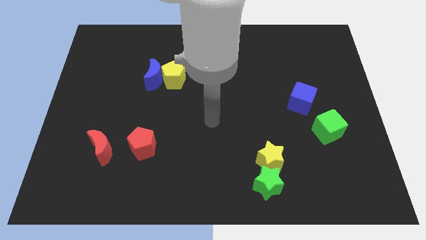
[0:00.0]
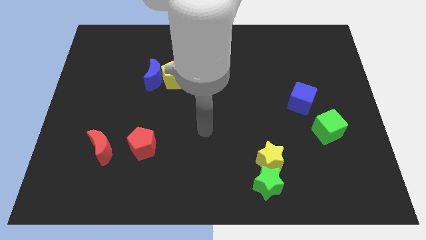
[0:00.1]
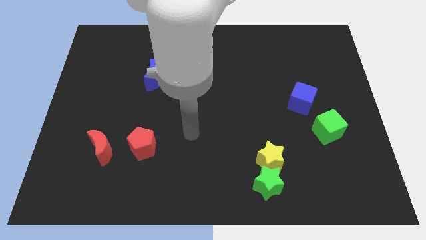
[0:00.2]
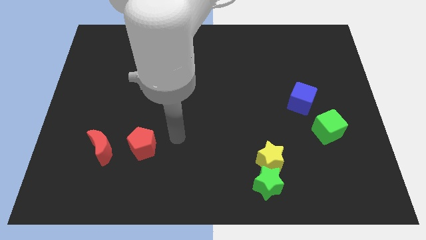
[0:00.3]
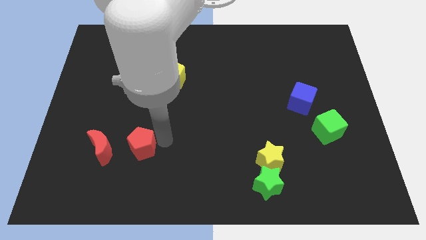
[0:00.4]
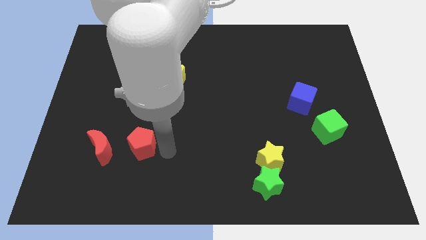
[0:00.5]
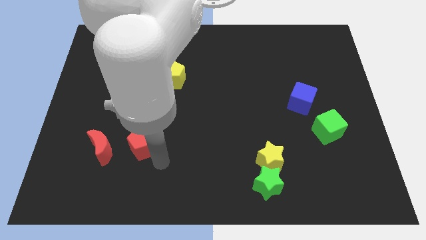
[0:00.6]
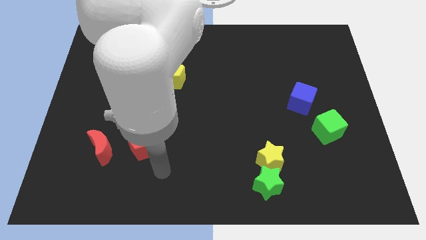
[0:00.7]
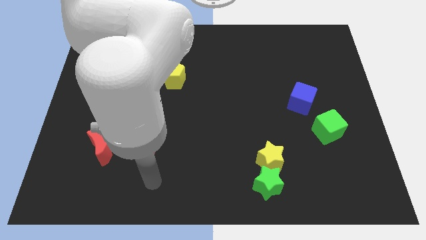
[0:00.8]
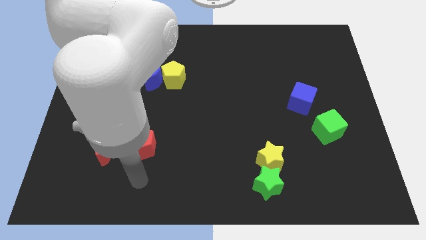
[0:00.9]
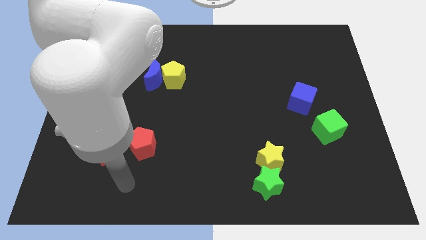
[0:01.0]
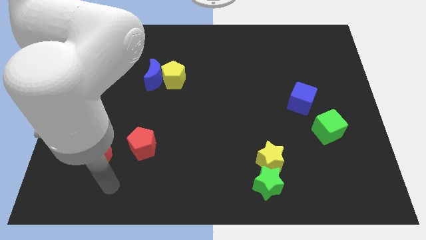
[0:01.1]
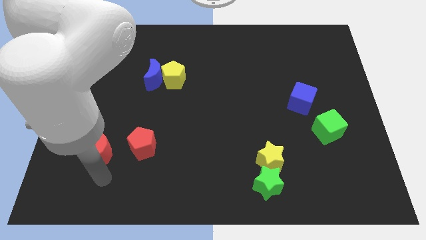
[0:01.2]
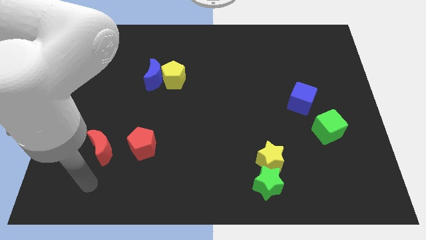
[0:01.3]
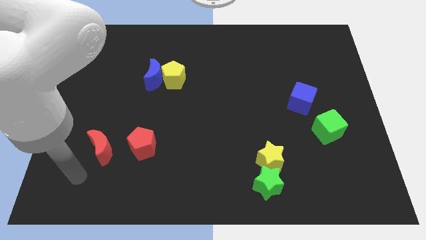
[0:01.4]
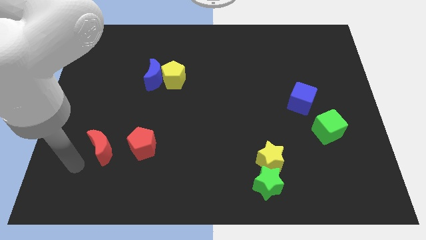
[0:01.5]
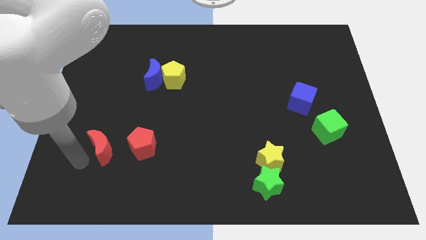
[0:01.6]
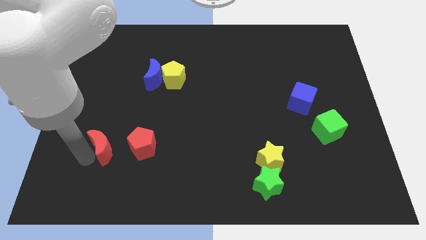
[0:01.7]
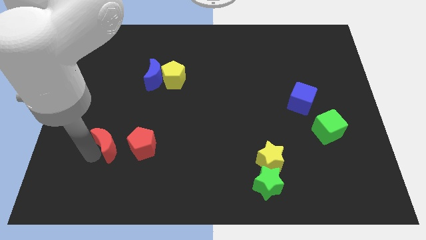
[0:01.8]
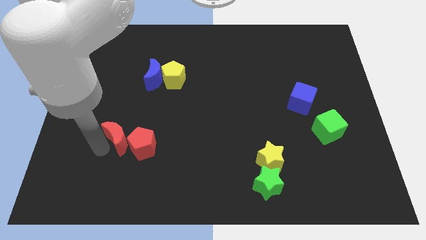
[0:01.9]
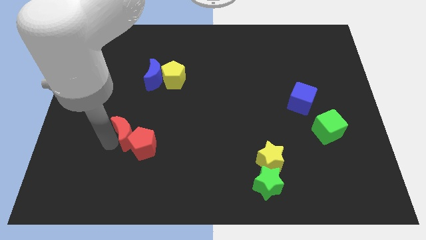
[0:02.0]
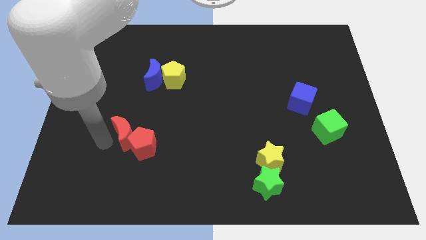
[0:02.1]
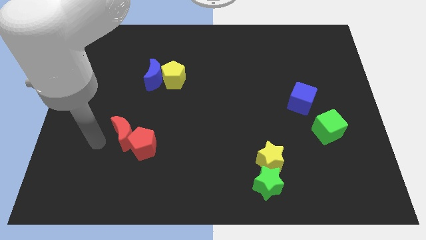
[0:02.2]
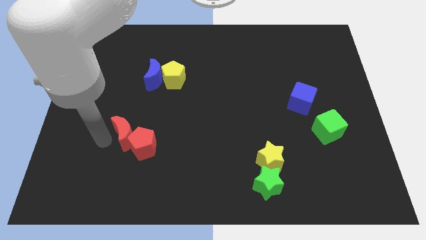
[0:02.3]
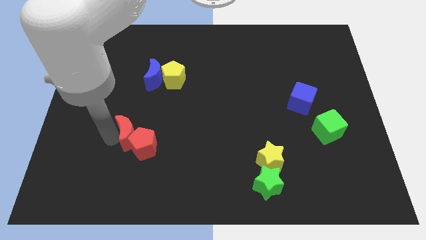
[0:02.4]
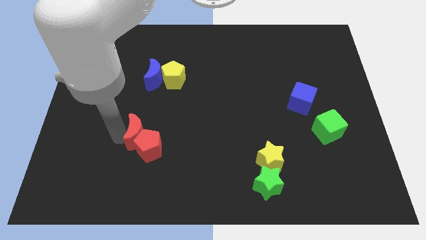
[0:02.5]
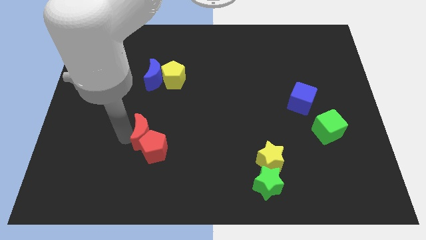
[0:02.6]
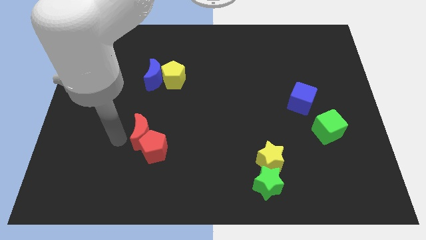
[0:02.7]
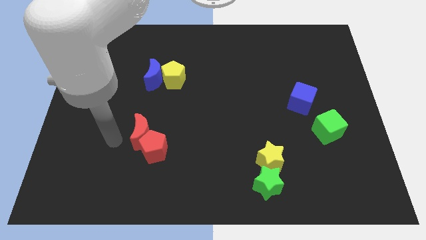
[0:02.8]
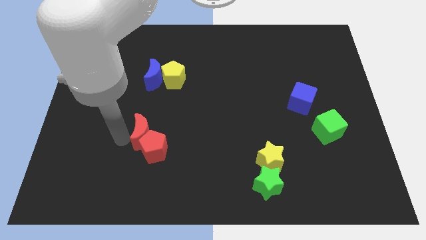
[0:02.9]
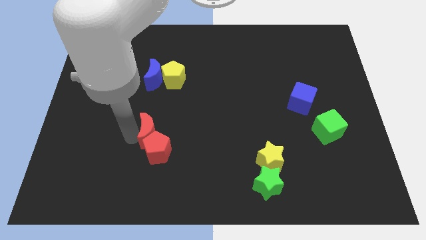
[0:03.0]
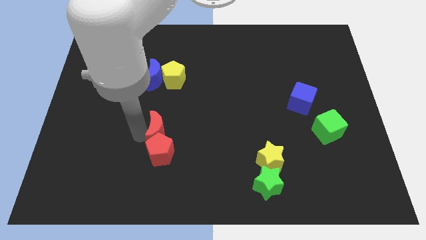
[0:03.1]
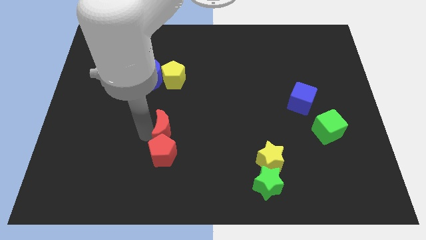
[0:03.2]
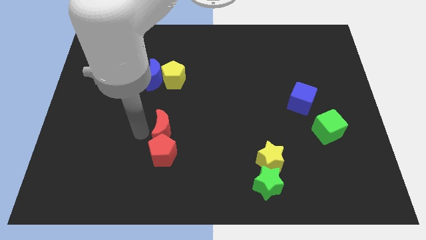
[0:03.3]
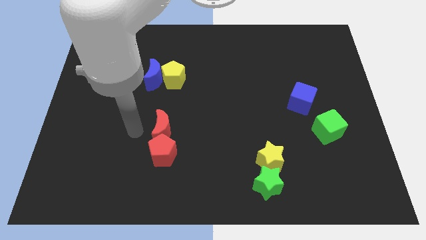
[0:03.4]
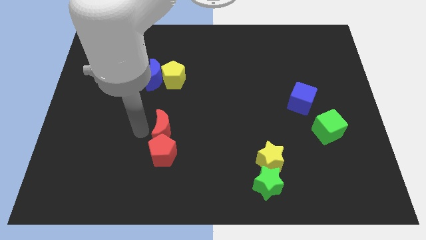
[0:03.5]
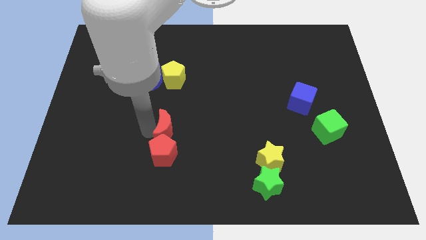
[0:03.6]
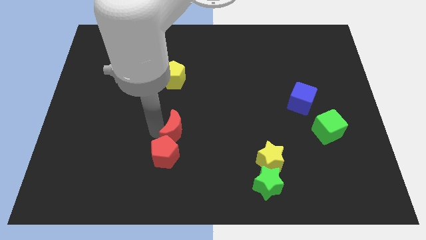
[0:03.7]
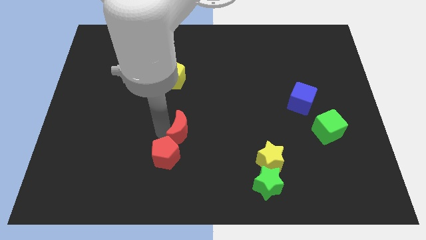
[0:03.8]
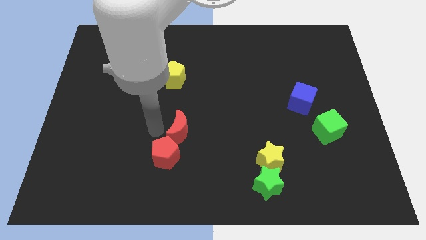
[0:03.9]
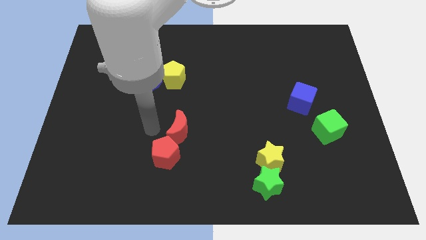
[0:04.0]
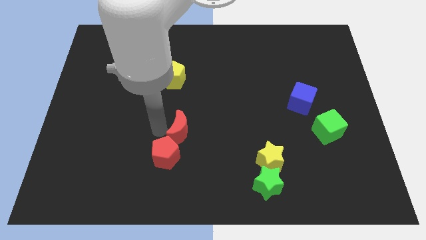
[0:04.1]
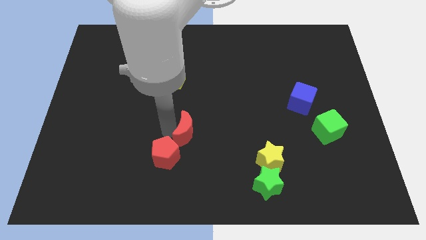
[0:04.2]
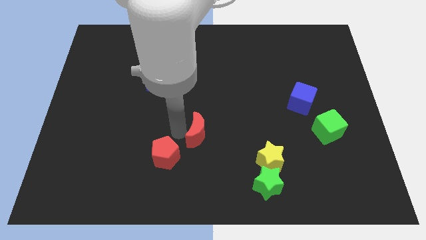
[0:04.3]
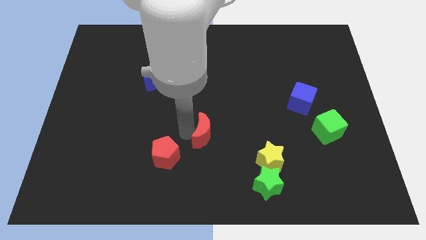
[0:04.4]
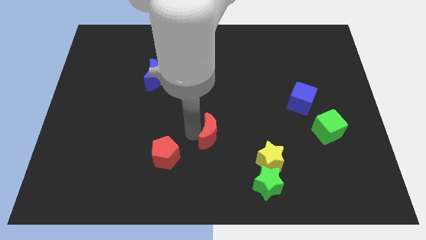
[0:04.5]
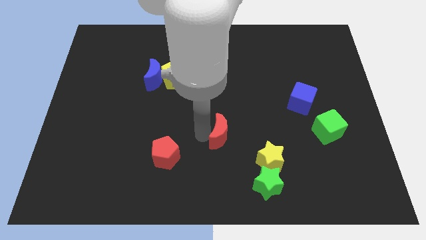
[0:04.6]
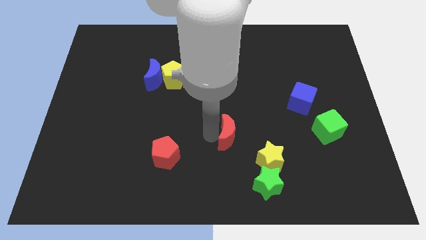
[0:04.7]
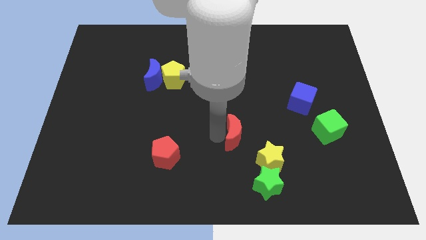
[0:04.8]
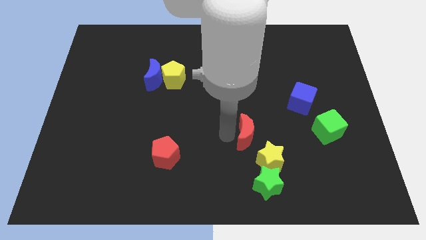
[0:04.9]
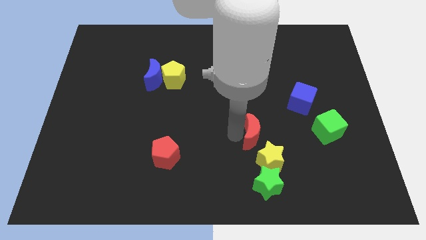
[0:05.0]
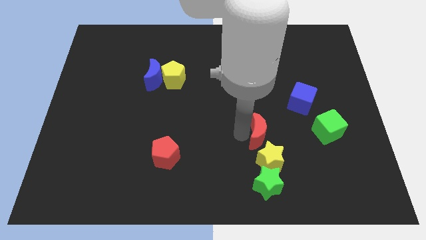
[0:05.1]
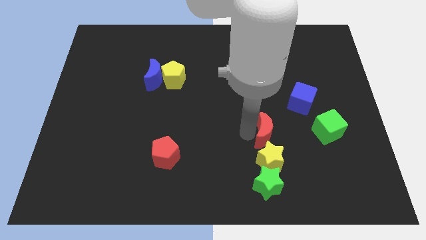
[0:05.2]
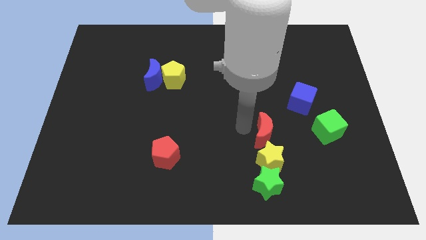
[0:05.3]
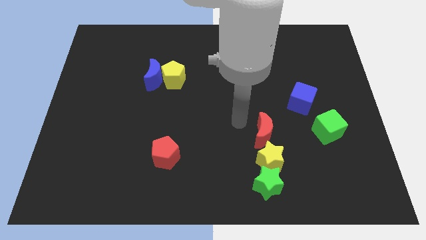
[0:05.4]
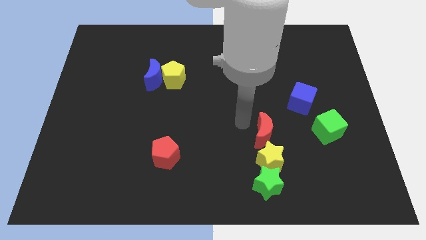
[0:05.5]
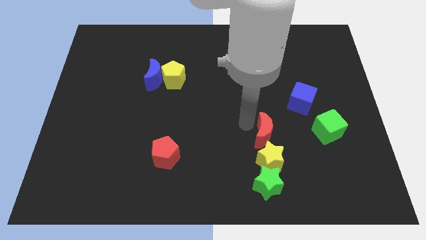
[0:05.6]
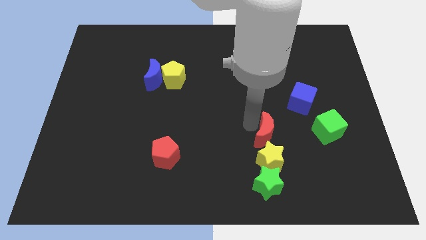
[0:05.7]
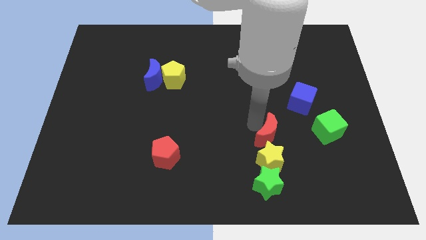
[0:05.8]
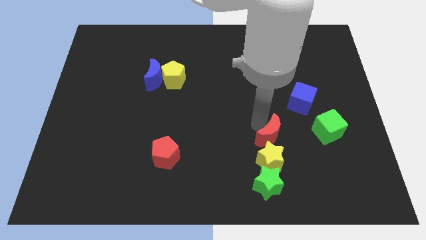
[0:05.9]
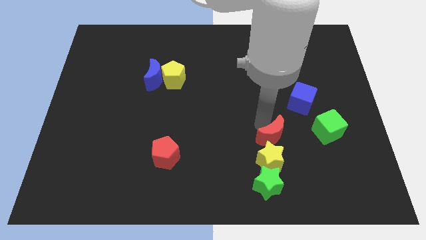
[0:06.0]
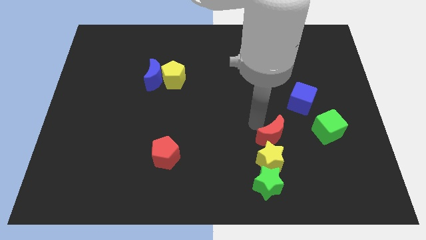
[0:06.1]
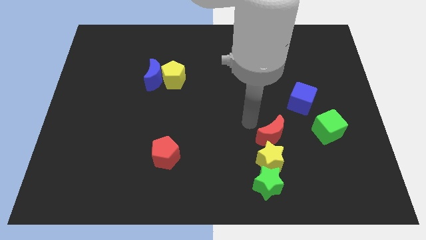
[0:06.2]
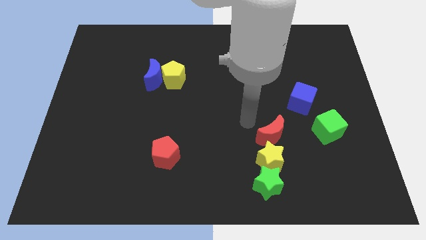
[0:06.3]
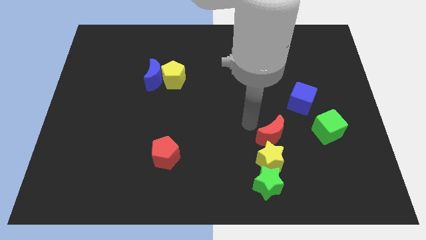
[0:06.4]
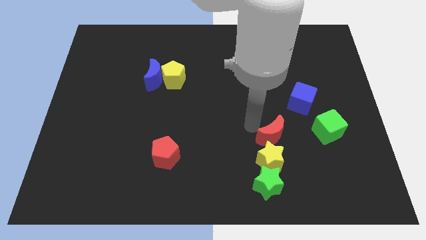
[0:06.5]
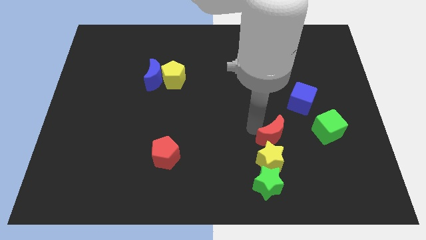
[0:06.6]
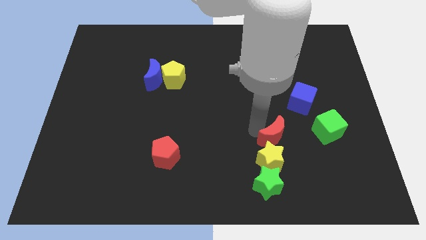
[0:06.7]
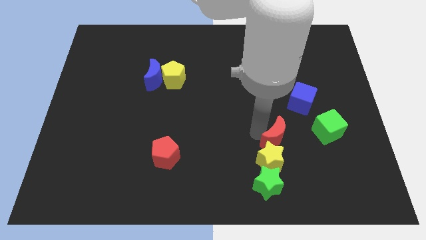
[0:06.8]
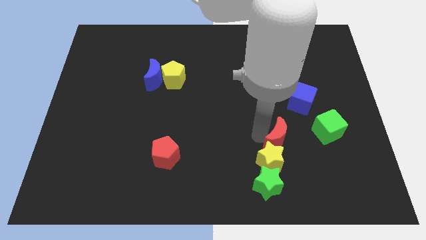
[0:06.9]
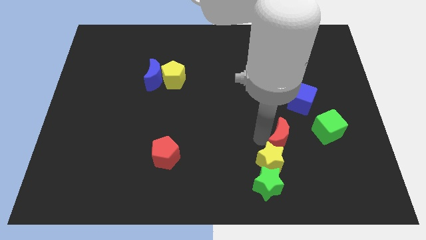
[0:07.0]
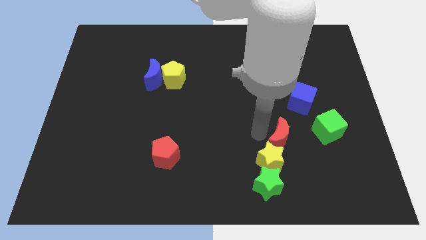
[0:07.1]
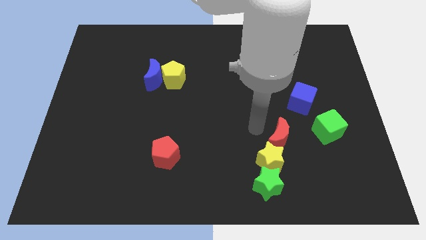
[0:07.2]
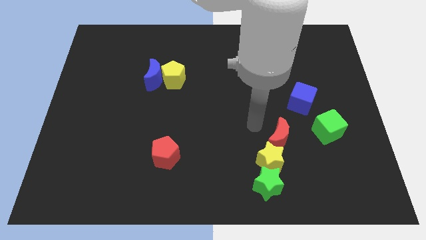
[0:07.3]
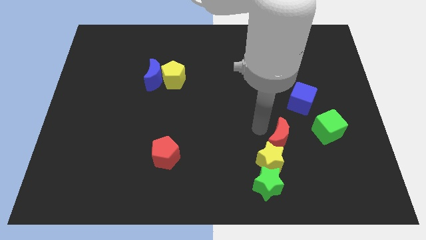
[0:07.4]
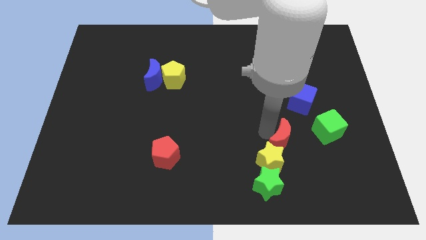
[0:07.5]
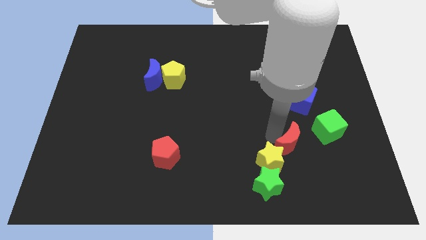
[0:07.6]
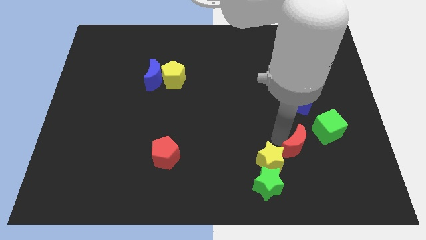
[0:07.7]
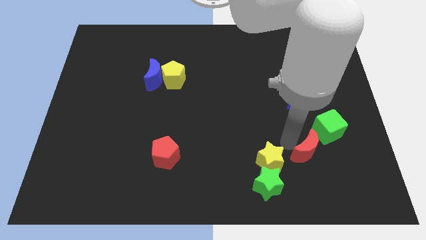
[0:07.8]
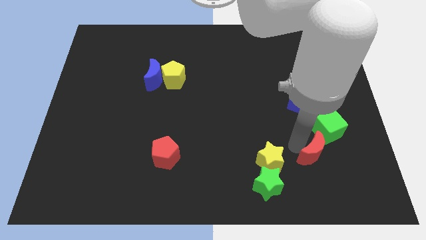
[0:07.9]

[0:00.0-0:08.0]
push the red moon below the green cube

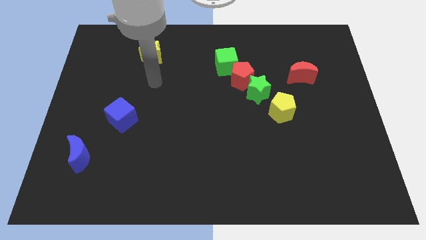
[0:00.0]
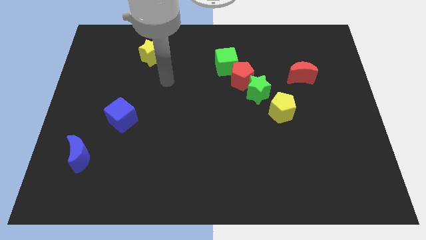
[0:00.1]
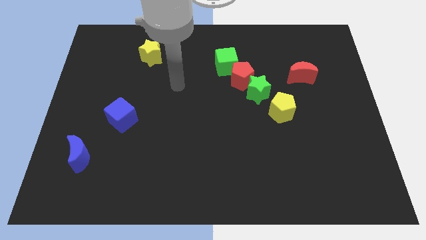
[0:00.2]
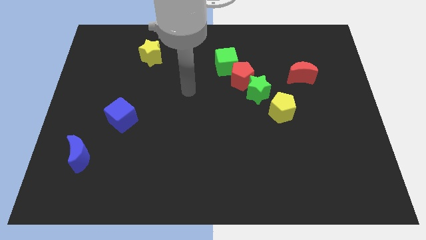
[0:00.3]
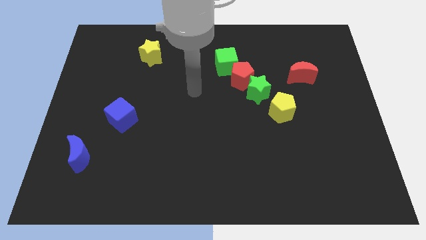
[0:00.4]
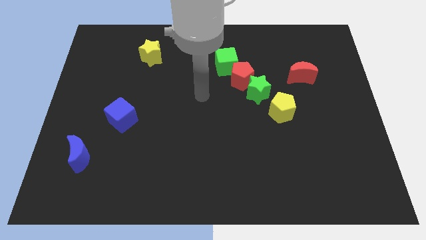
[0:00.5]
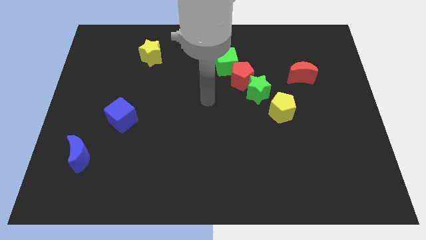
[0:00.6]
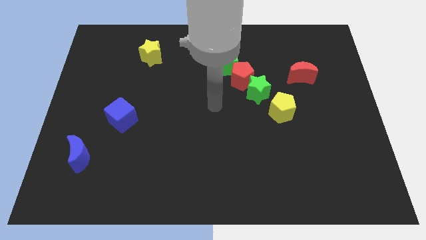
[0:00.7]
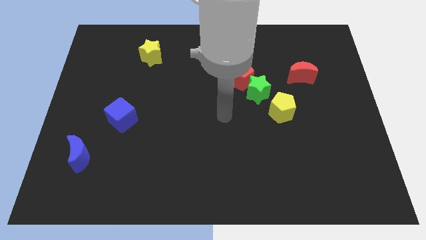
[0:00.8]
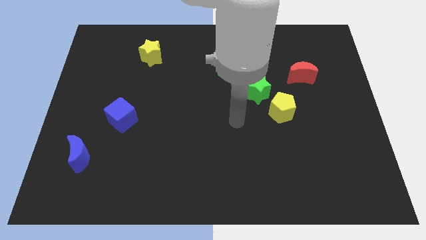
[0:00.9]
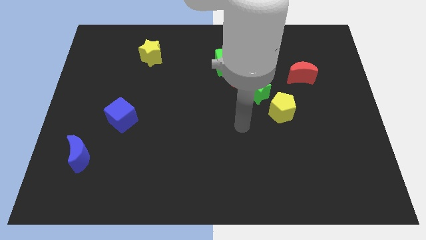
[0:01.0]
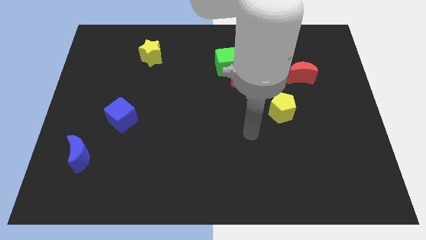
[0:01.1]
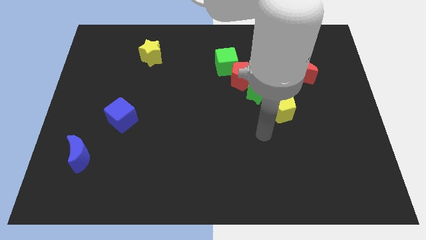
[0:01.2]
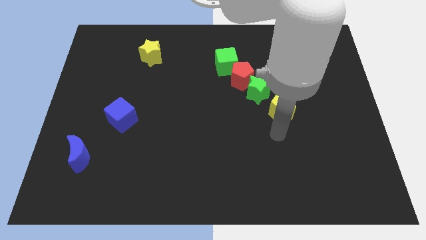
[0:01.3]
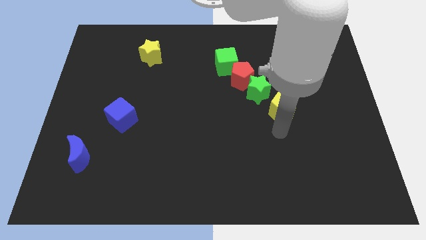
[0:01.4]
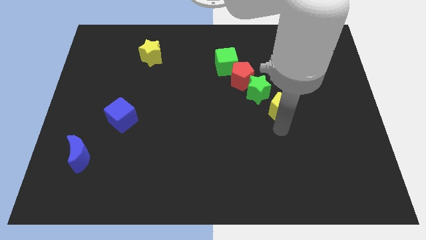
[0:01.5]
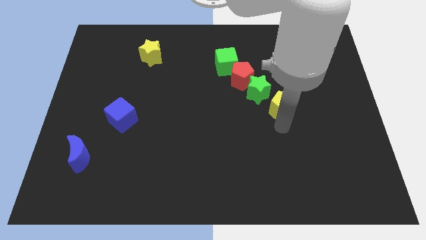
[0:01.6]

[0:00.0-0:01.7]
move the yellow pentagon diagonally down and to the left of the red moon
